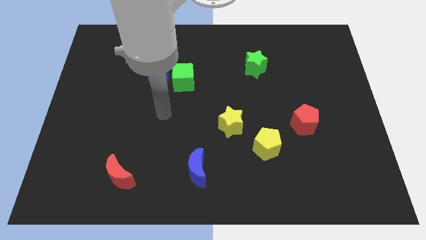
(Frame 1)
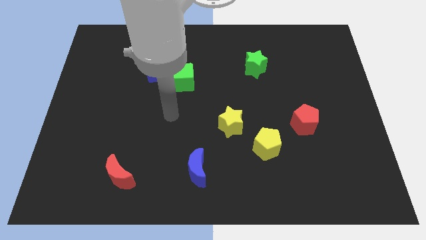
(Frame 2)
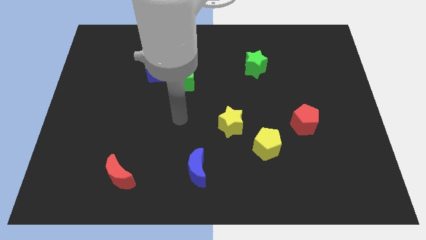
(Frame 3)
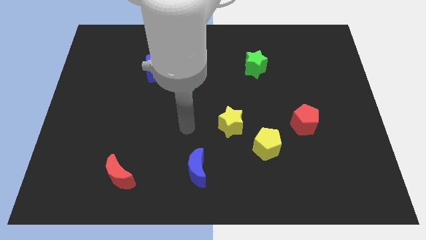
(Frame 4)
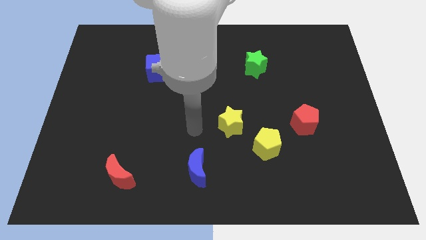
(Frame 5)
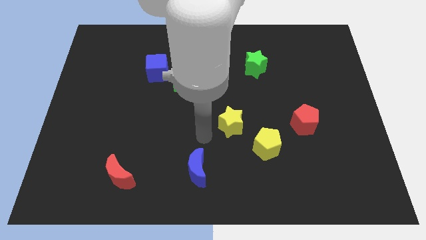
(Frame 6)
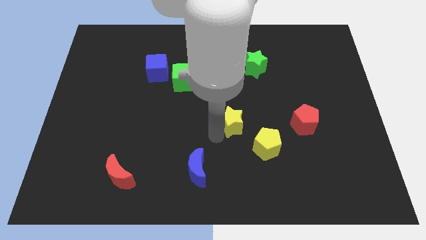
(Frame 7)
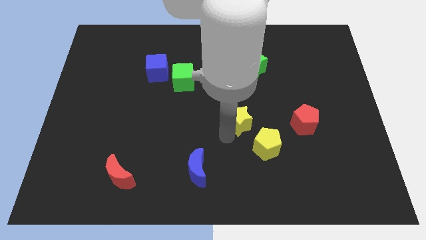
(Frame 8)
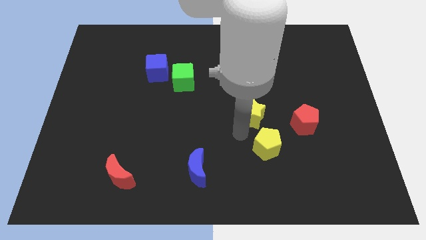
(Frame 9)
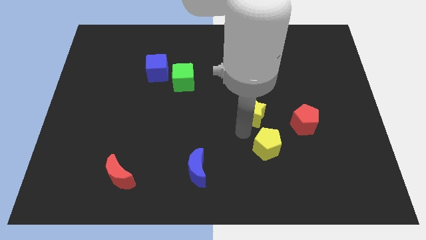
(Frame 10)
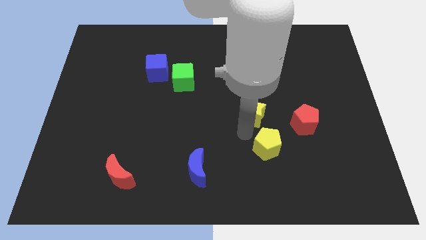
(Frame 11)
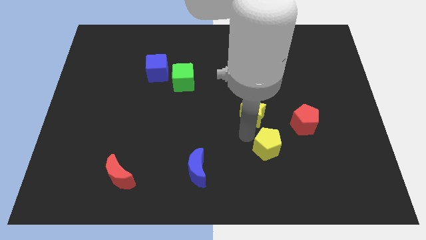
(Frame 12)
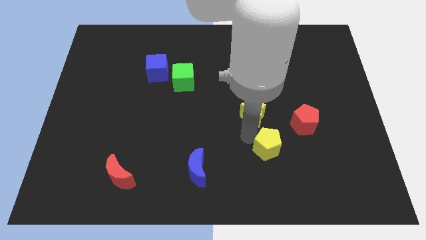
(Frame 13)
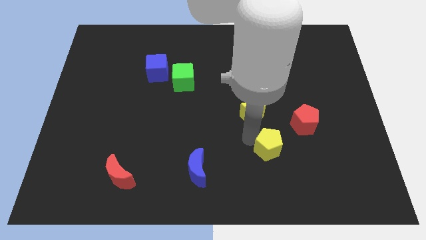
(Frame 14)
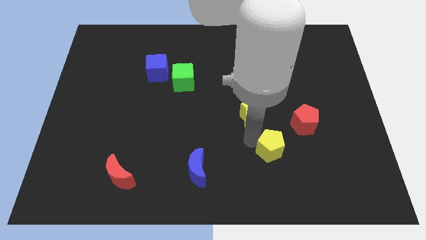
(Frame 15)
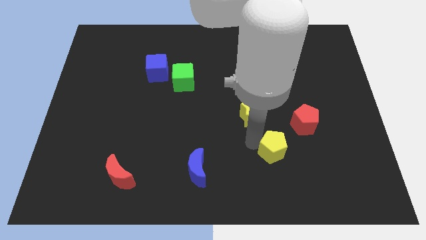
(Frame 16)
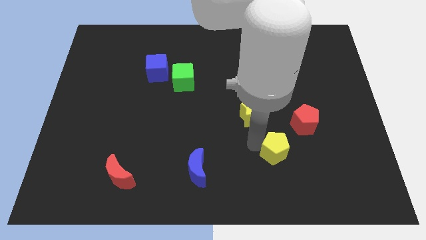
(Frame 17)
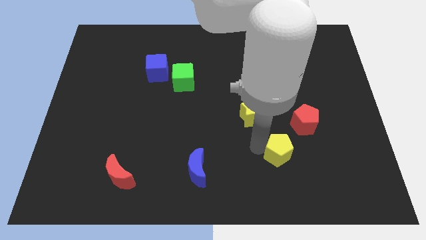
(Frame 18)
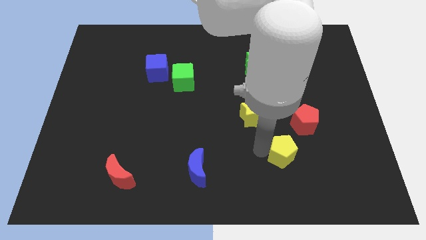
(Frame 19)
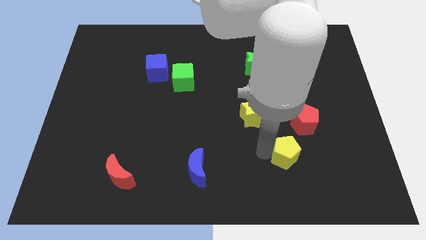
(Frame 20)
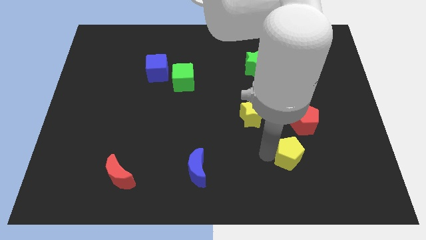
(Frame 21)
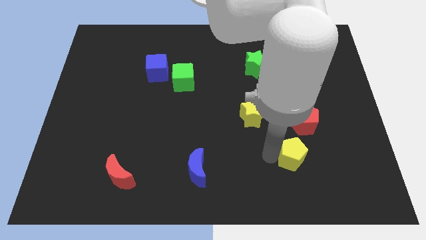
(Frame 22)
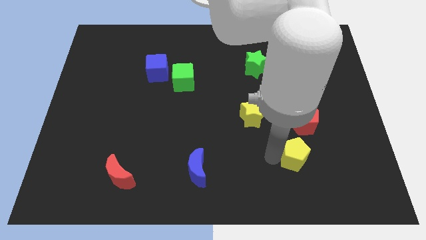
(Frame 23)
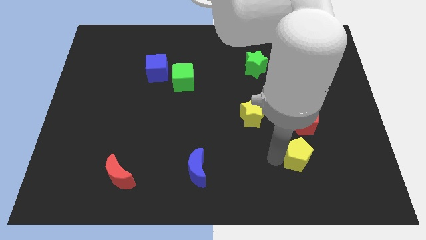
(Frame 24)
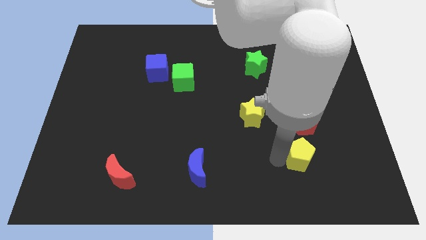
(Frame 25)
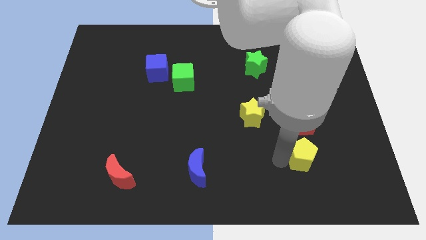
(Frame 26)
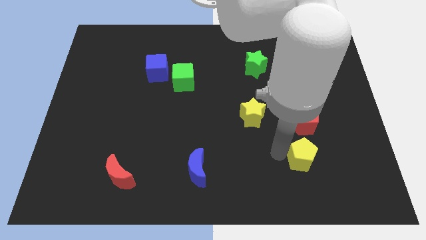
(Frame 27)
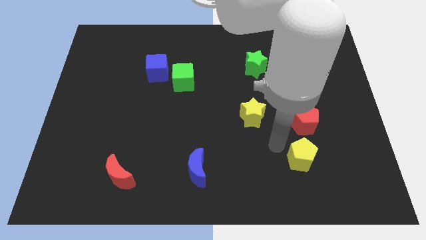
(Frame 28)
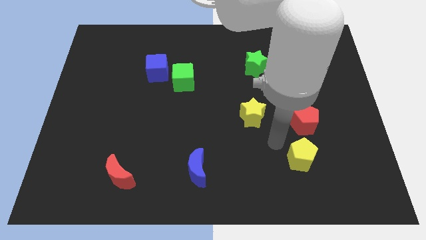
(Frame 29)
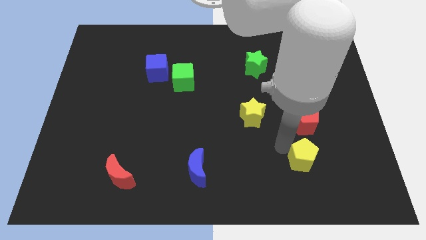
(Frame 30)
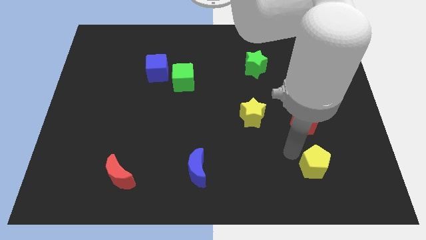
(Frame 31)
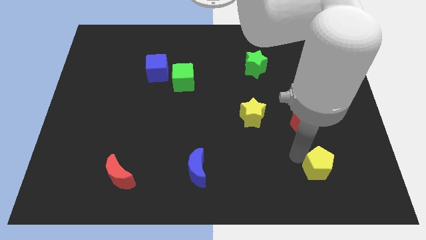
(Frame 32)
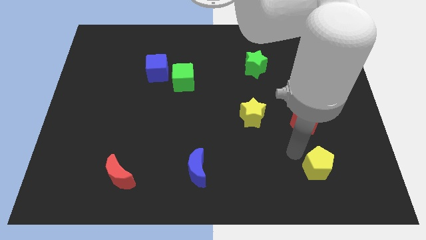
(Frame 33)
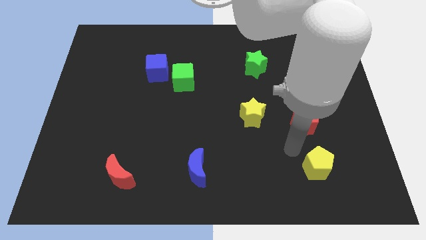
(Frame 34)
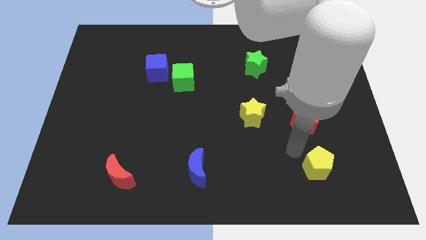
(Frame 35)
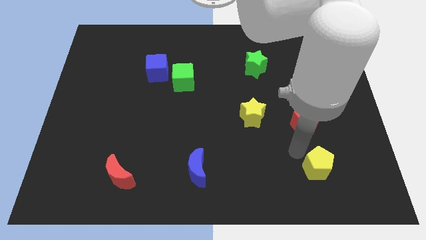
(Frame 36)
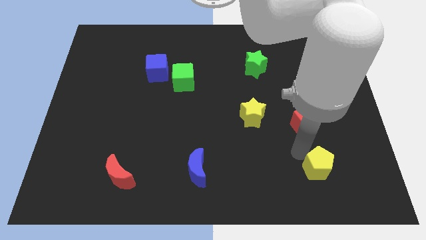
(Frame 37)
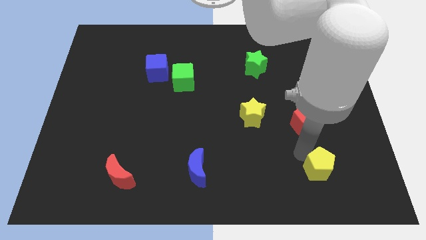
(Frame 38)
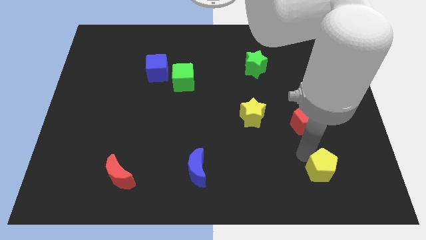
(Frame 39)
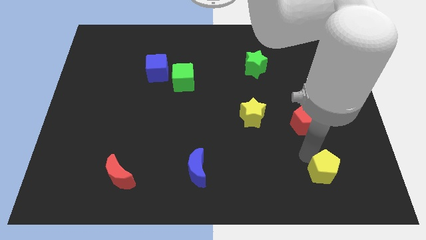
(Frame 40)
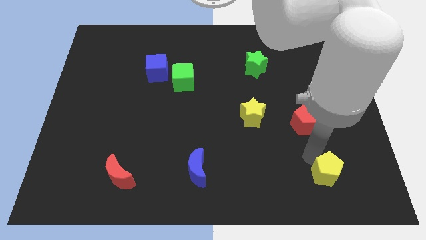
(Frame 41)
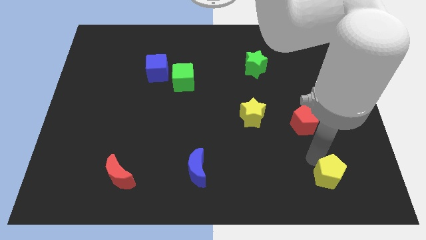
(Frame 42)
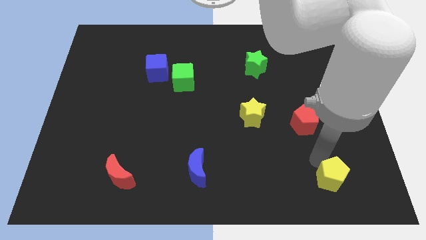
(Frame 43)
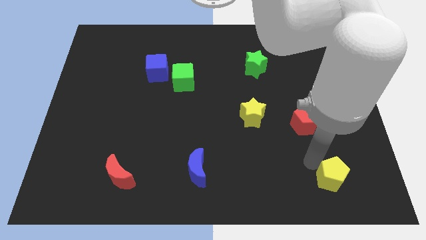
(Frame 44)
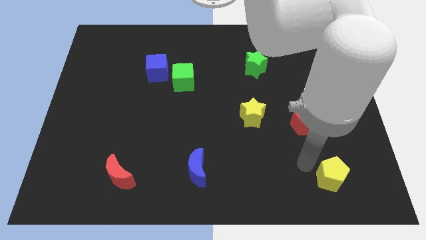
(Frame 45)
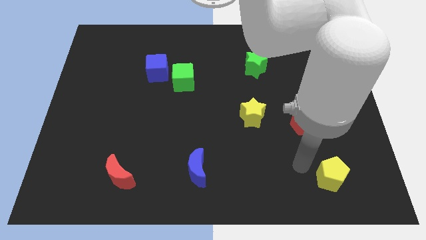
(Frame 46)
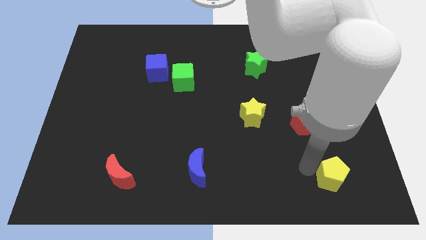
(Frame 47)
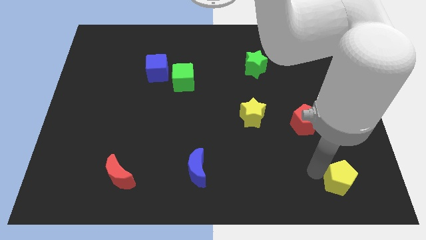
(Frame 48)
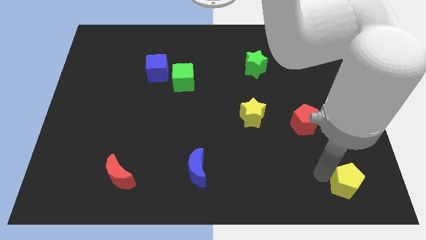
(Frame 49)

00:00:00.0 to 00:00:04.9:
move the yellow pentagon to the bottom right of the board

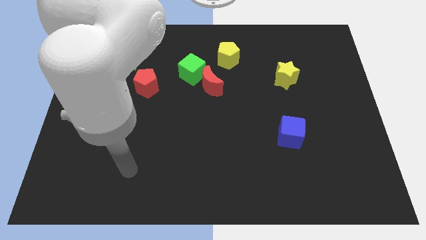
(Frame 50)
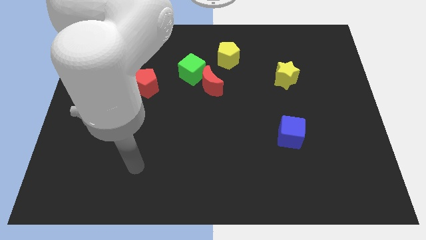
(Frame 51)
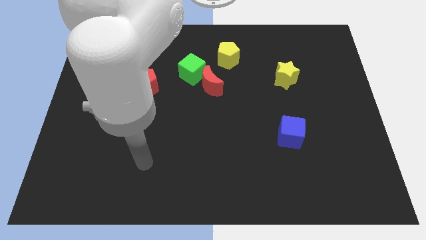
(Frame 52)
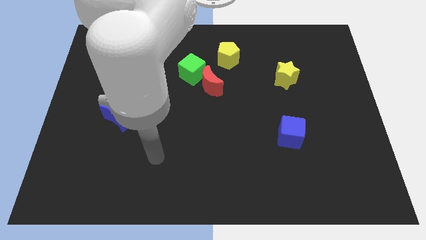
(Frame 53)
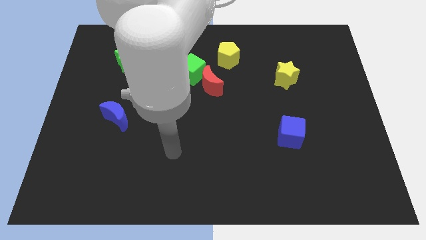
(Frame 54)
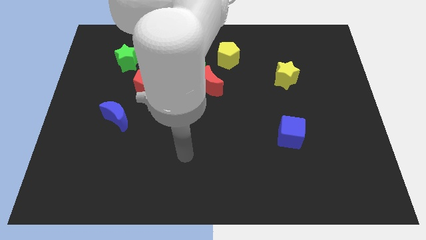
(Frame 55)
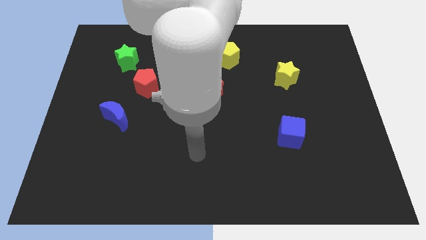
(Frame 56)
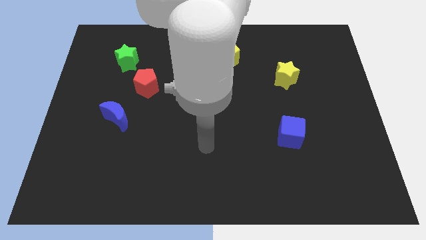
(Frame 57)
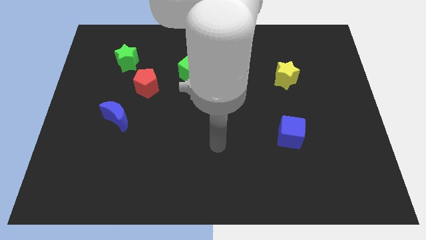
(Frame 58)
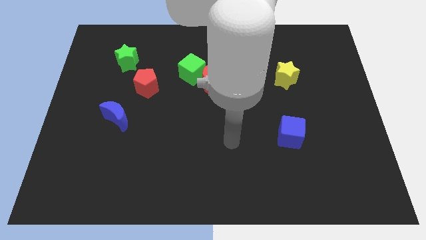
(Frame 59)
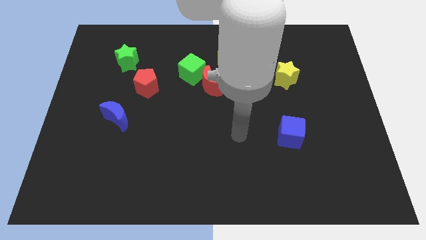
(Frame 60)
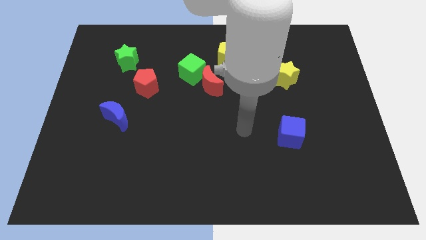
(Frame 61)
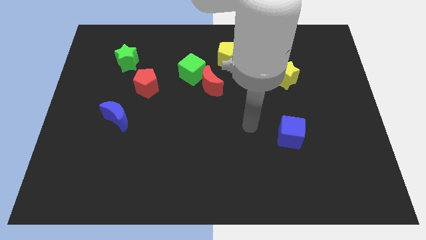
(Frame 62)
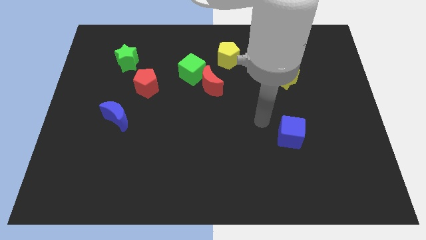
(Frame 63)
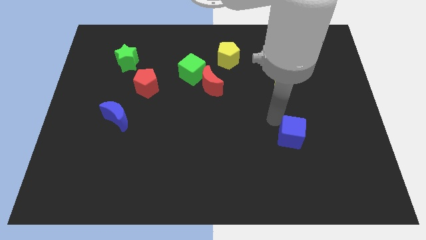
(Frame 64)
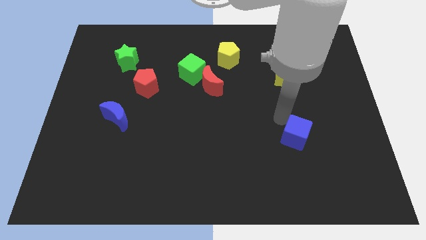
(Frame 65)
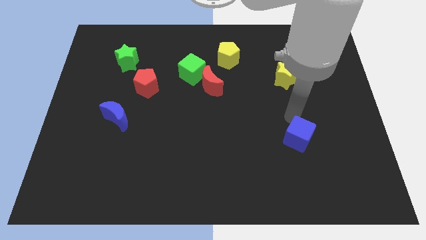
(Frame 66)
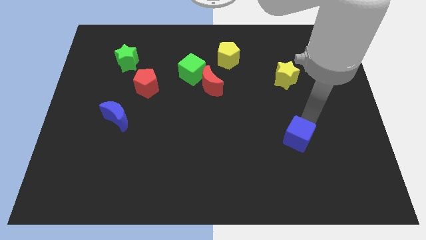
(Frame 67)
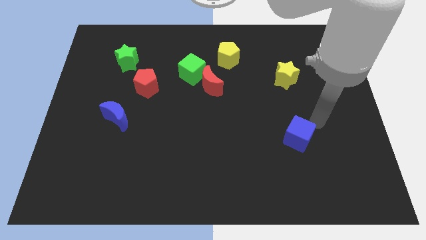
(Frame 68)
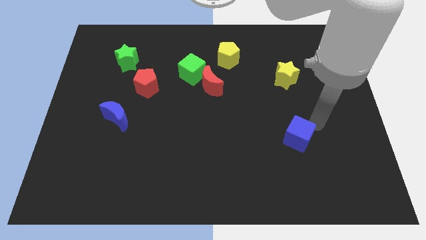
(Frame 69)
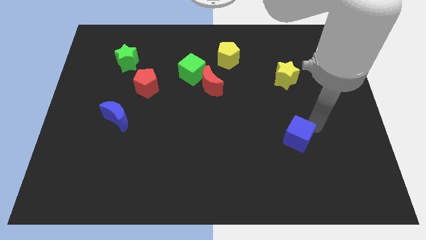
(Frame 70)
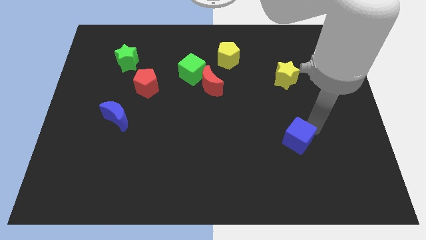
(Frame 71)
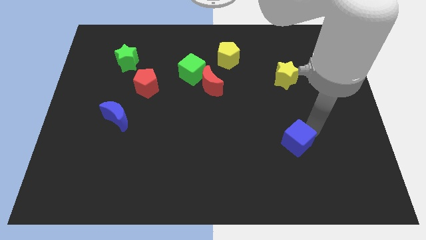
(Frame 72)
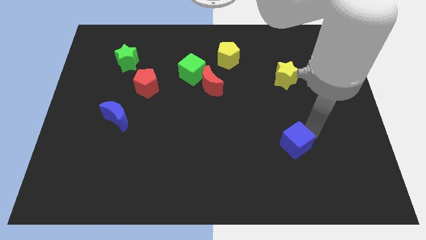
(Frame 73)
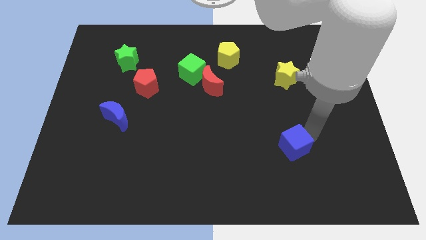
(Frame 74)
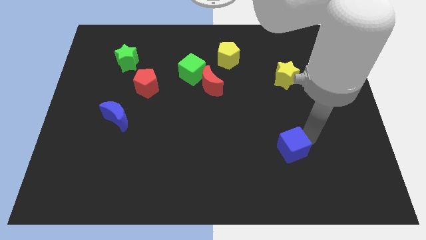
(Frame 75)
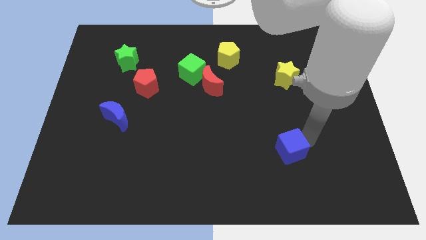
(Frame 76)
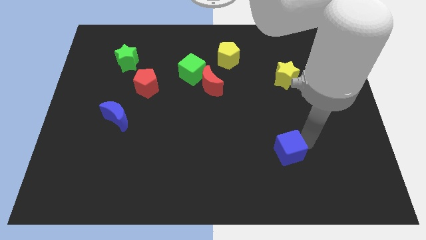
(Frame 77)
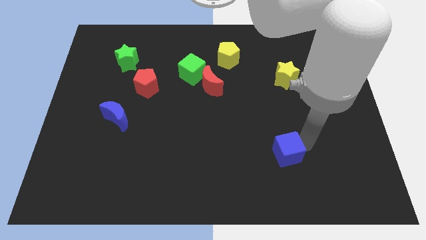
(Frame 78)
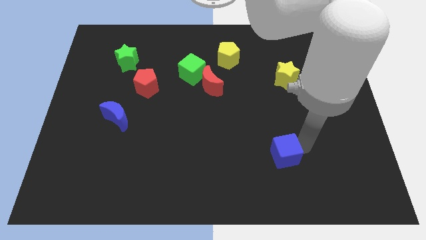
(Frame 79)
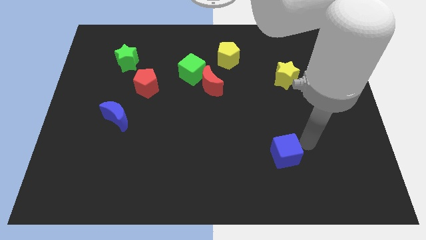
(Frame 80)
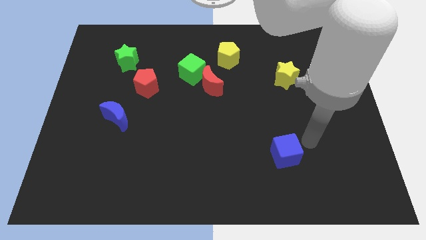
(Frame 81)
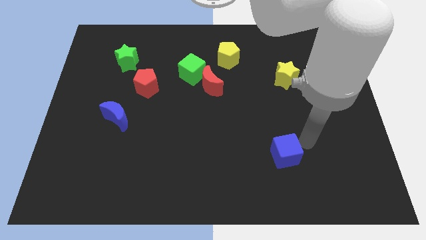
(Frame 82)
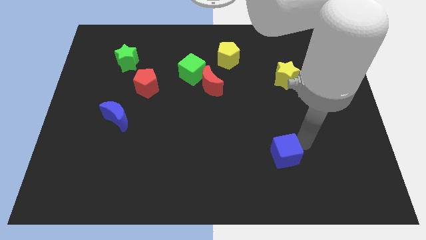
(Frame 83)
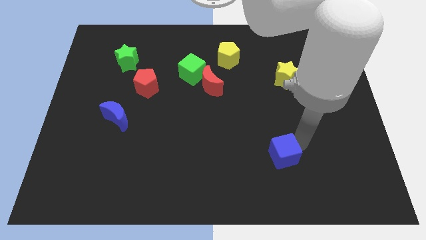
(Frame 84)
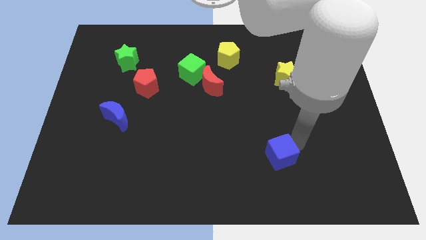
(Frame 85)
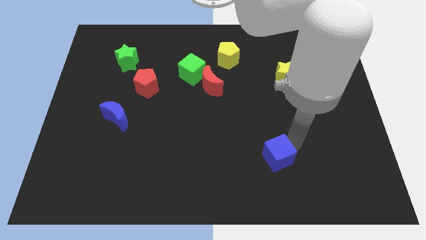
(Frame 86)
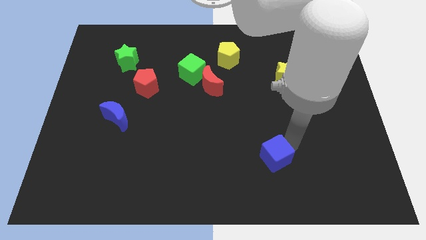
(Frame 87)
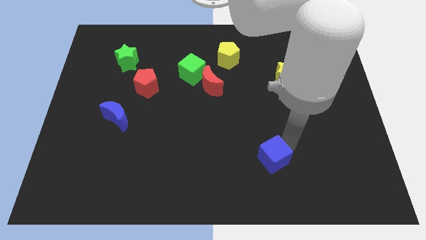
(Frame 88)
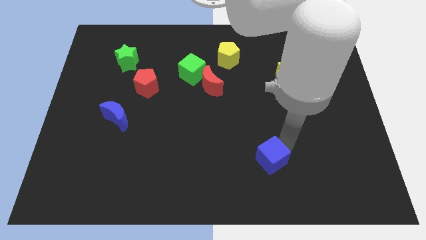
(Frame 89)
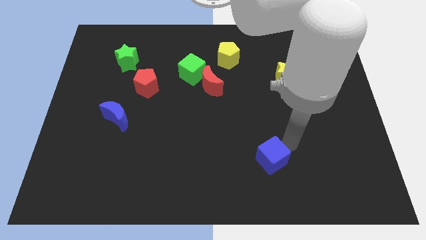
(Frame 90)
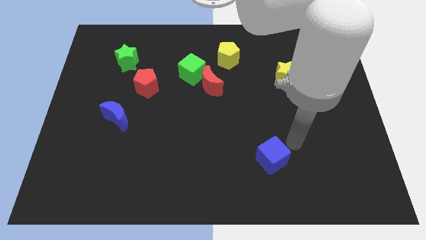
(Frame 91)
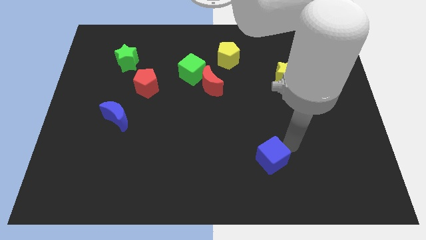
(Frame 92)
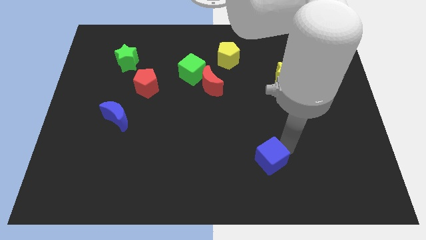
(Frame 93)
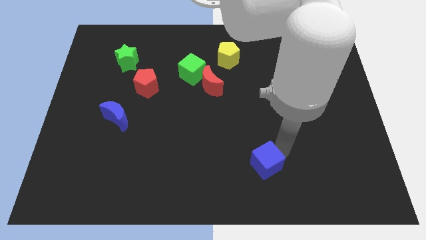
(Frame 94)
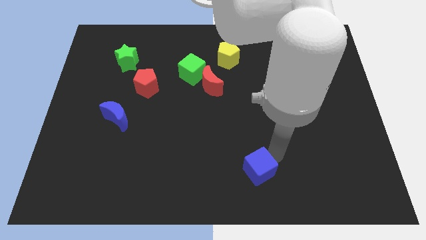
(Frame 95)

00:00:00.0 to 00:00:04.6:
put the blue cube to the bottom
